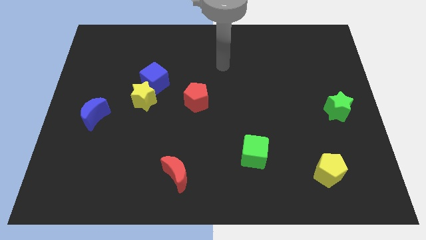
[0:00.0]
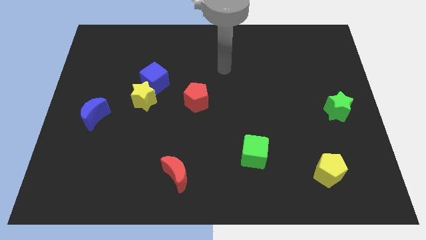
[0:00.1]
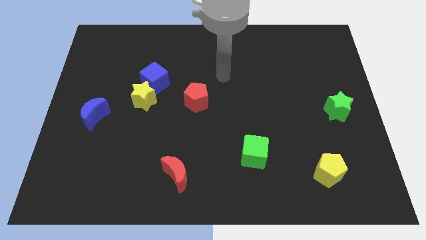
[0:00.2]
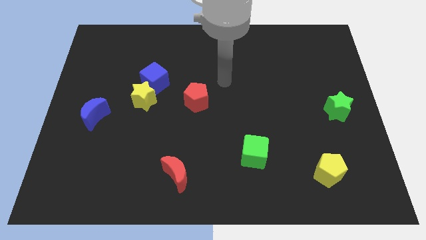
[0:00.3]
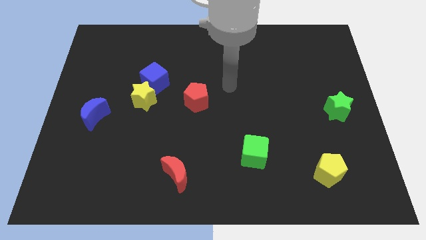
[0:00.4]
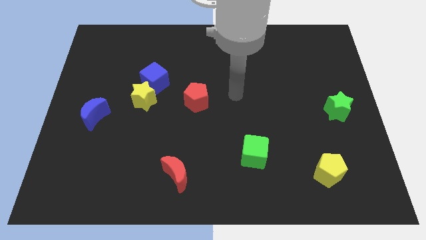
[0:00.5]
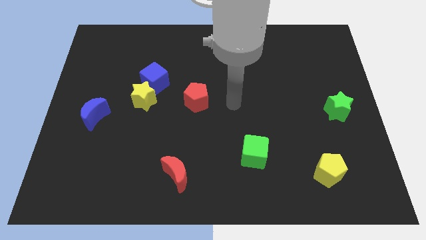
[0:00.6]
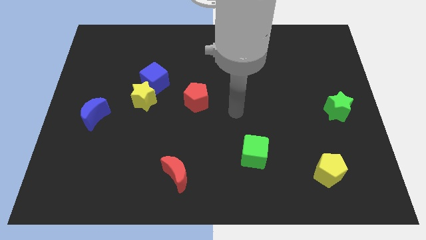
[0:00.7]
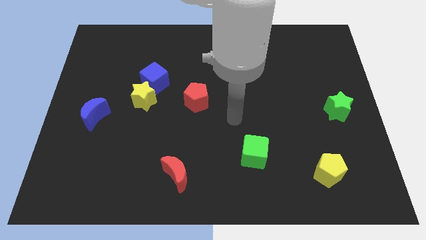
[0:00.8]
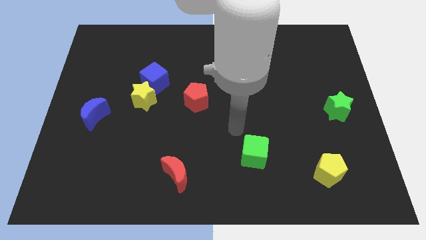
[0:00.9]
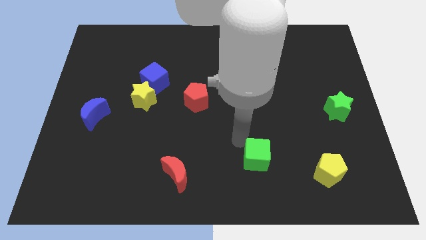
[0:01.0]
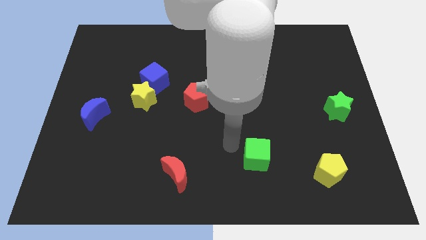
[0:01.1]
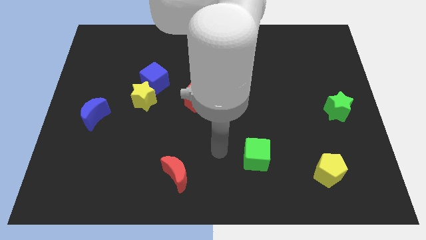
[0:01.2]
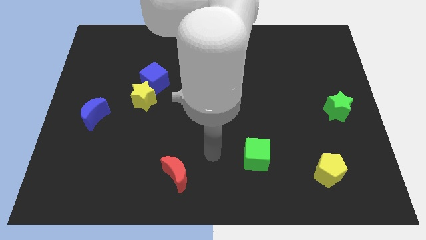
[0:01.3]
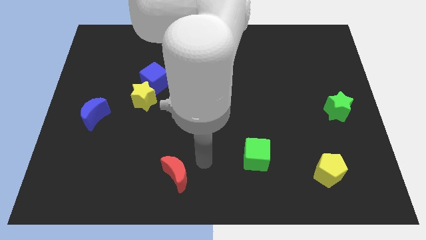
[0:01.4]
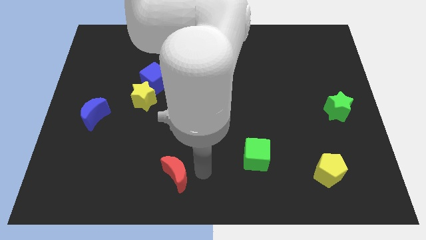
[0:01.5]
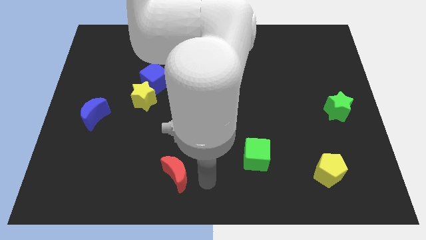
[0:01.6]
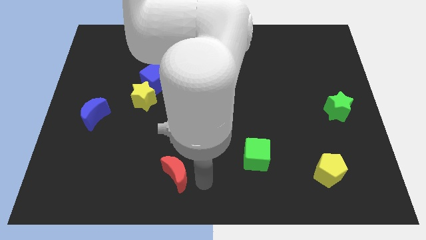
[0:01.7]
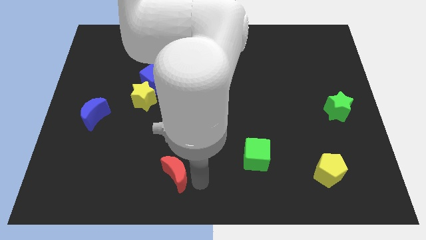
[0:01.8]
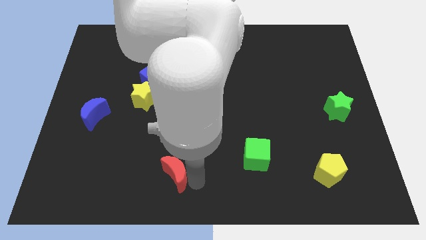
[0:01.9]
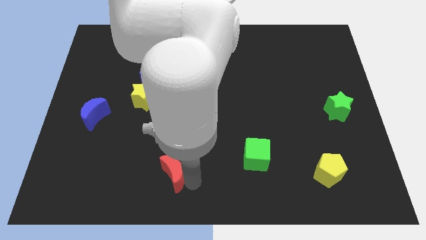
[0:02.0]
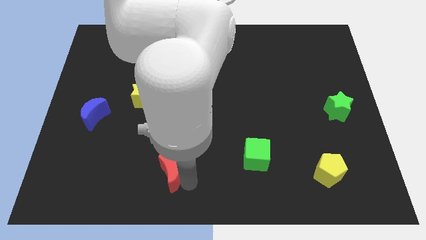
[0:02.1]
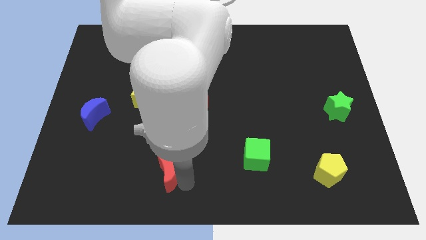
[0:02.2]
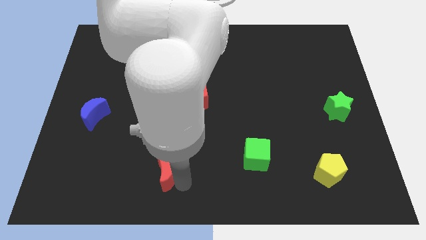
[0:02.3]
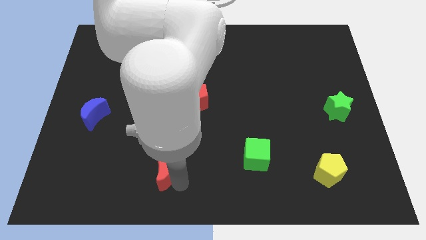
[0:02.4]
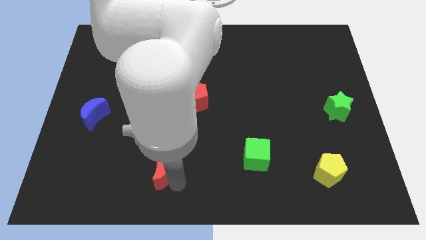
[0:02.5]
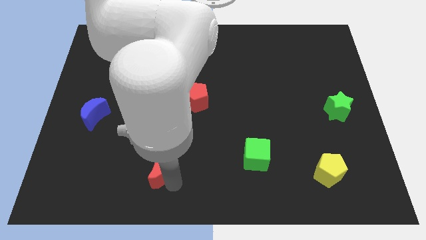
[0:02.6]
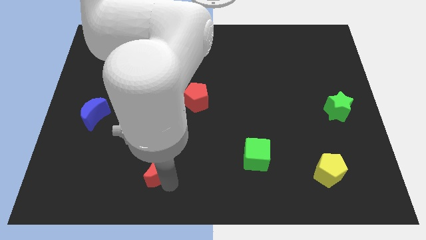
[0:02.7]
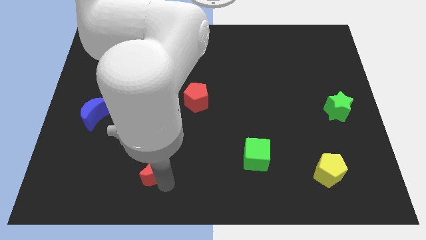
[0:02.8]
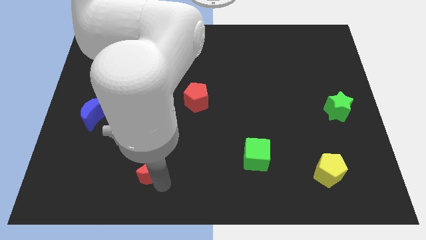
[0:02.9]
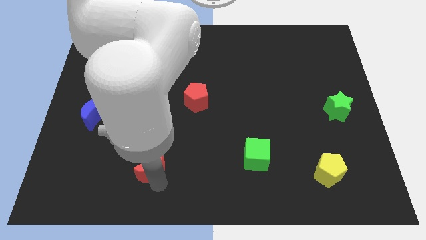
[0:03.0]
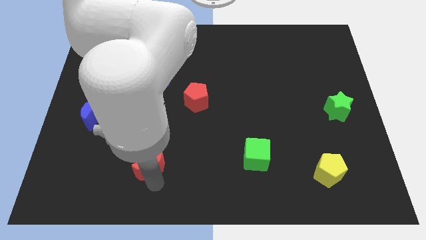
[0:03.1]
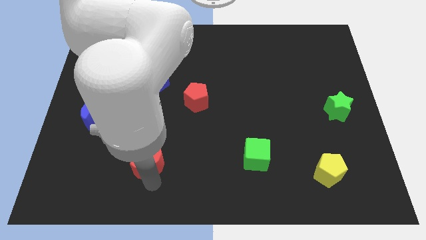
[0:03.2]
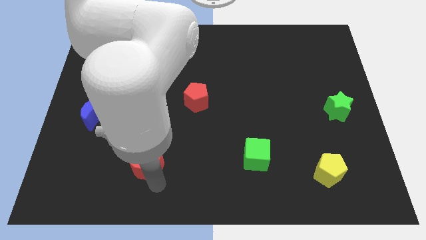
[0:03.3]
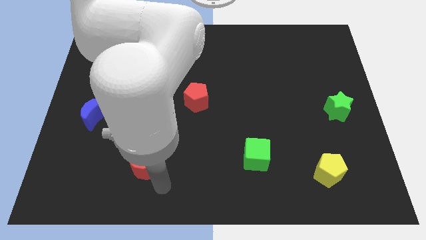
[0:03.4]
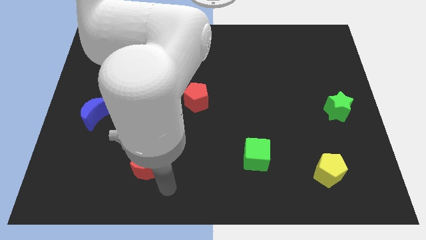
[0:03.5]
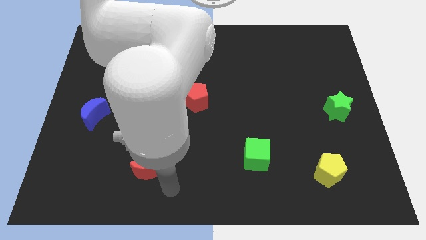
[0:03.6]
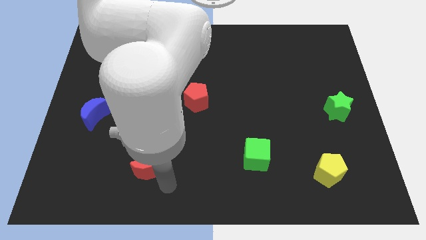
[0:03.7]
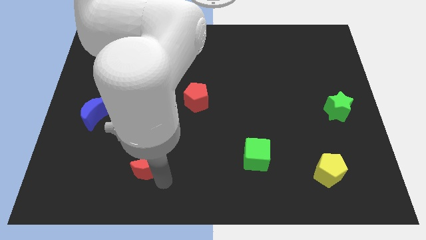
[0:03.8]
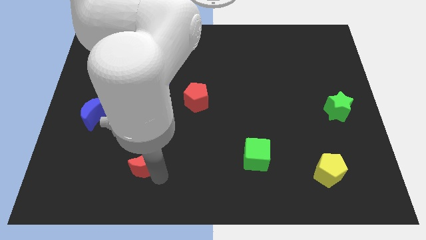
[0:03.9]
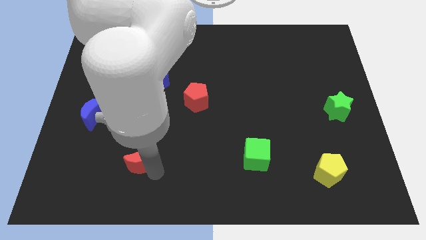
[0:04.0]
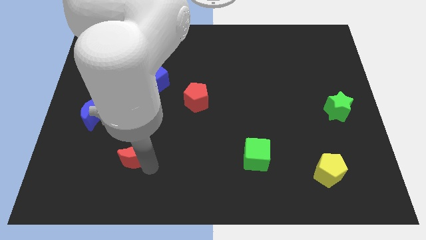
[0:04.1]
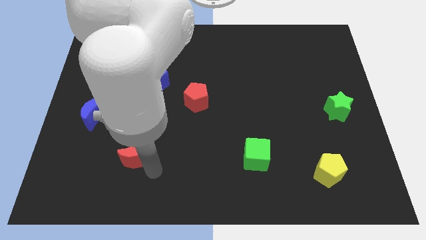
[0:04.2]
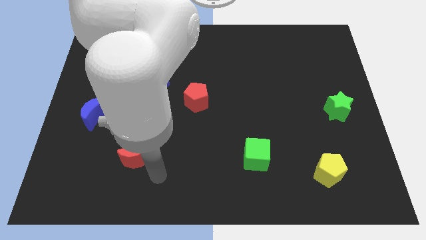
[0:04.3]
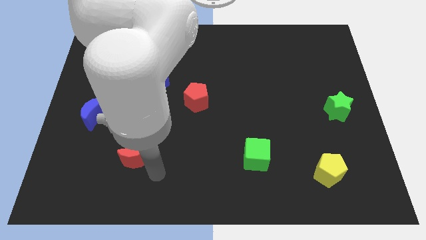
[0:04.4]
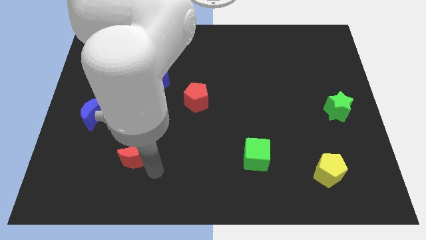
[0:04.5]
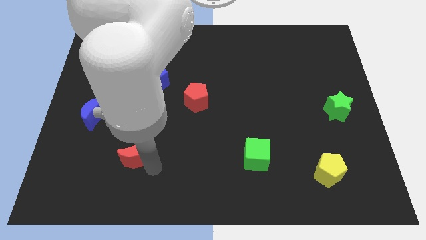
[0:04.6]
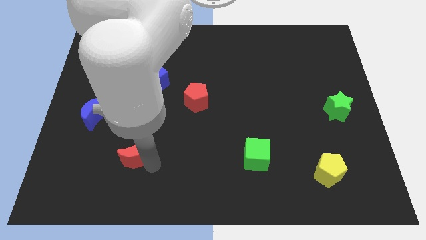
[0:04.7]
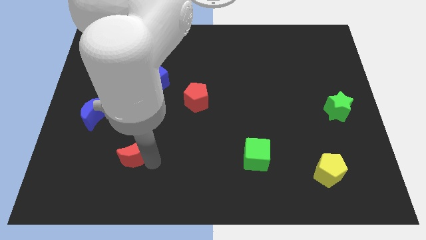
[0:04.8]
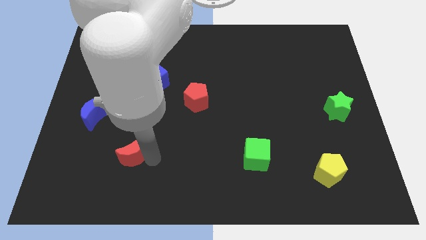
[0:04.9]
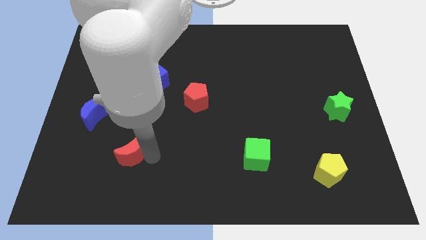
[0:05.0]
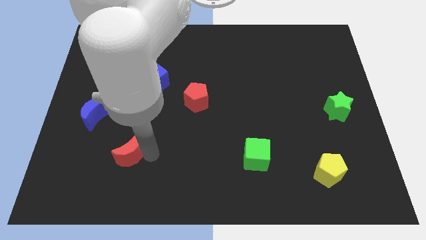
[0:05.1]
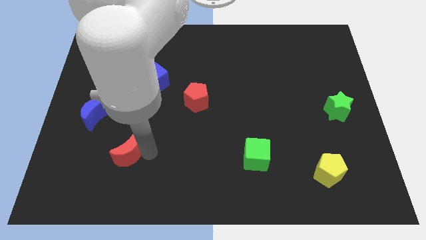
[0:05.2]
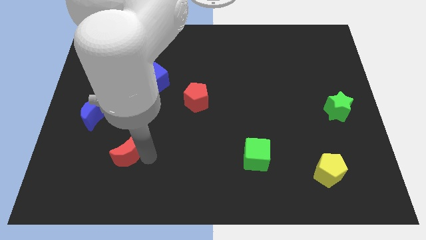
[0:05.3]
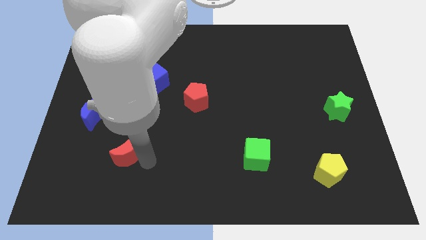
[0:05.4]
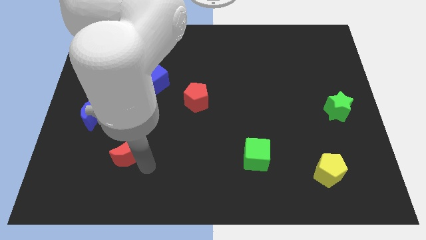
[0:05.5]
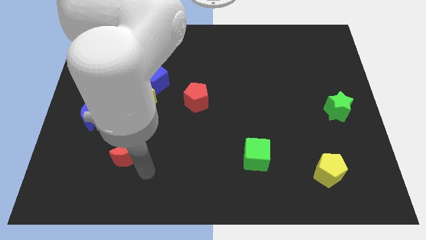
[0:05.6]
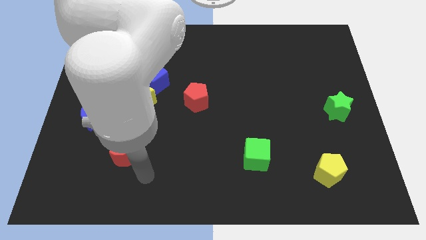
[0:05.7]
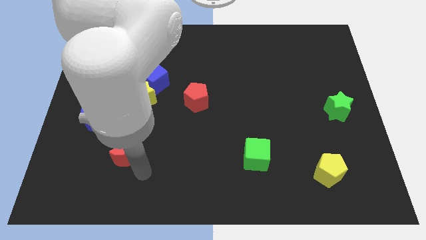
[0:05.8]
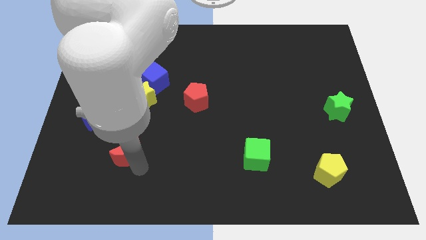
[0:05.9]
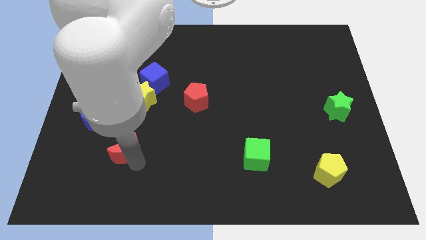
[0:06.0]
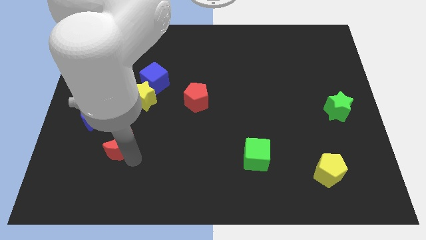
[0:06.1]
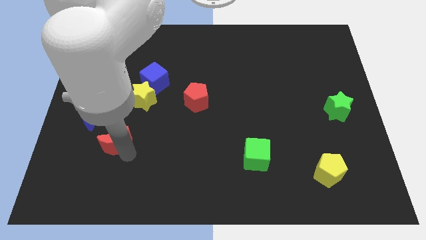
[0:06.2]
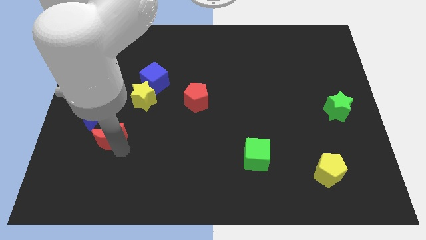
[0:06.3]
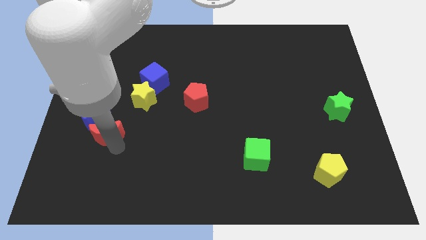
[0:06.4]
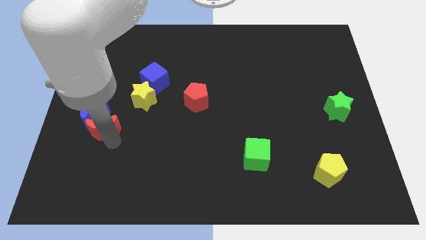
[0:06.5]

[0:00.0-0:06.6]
put the red moon close to the blue moon

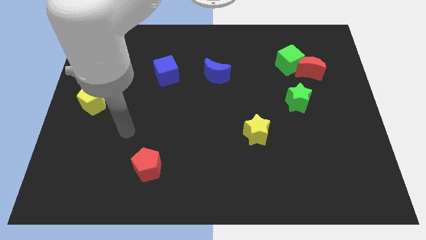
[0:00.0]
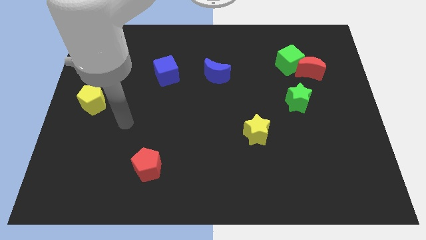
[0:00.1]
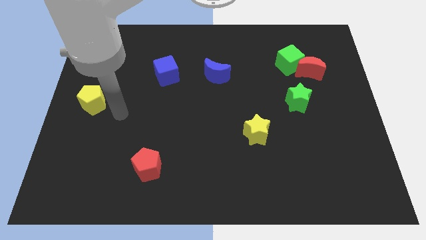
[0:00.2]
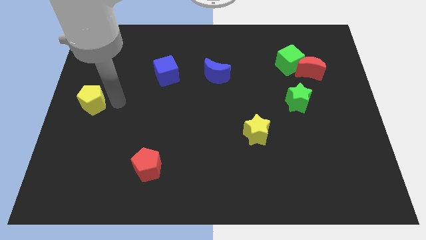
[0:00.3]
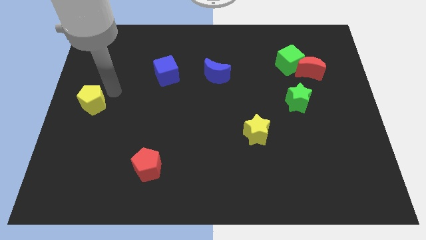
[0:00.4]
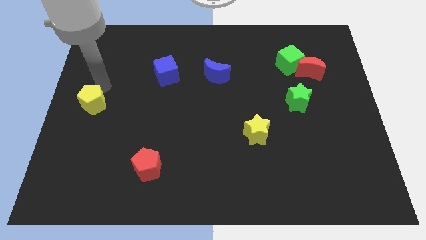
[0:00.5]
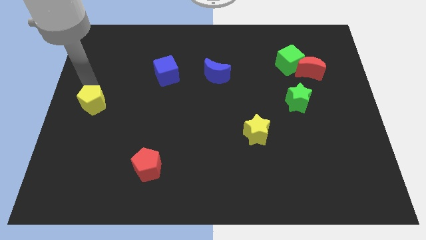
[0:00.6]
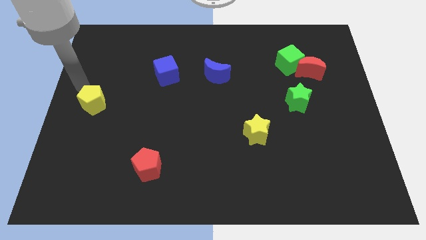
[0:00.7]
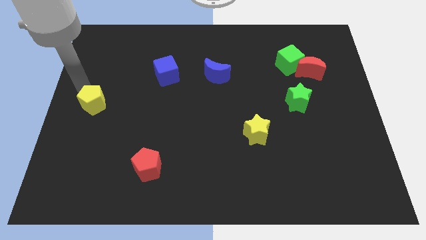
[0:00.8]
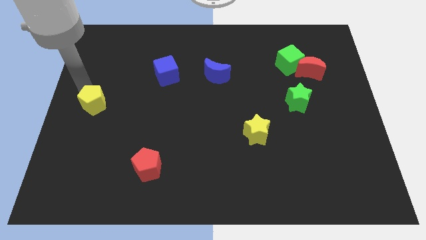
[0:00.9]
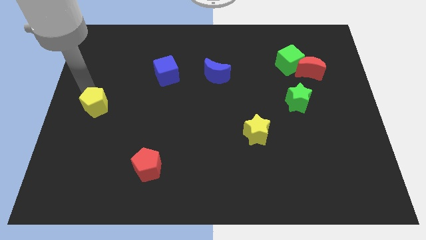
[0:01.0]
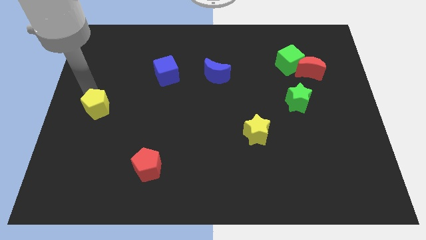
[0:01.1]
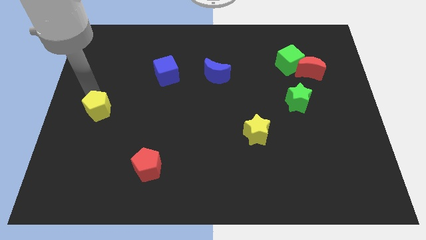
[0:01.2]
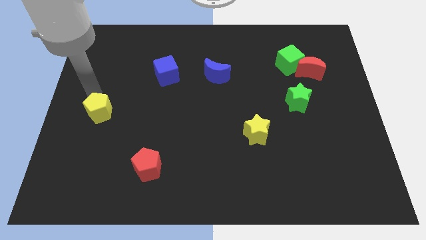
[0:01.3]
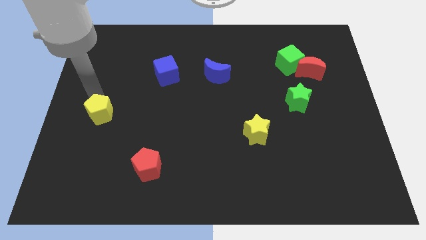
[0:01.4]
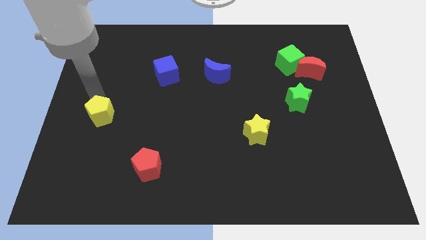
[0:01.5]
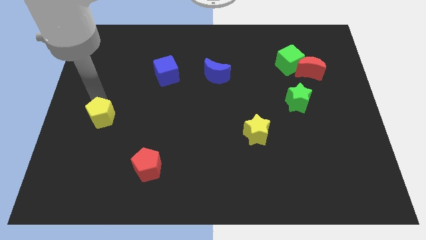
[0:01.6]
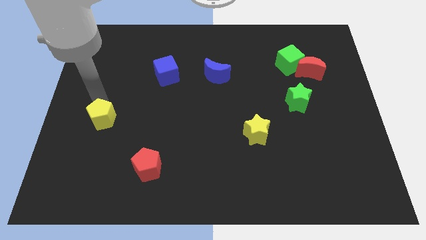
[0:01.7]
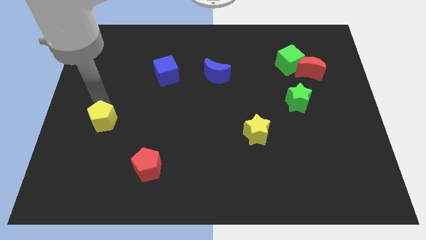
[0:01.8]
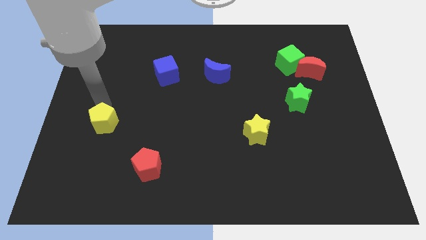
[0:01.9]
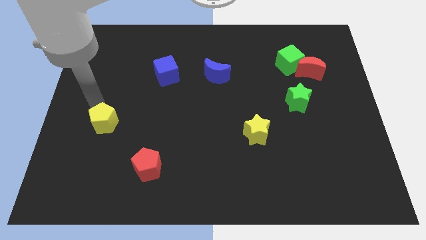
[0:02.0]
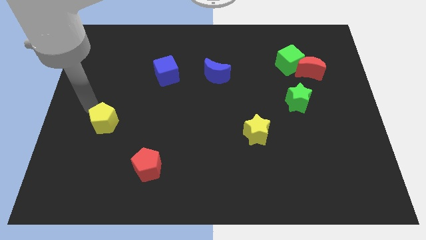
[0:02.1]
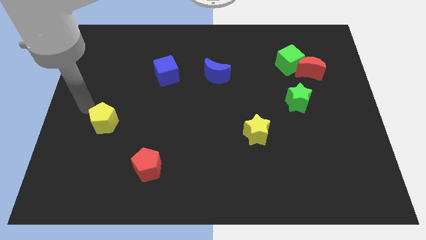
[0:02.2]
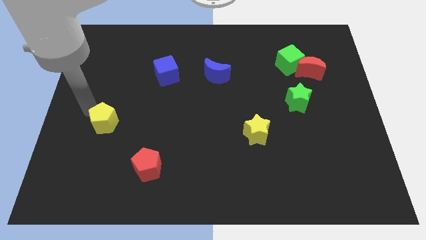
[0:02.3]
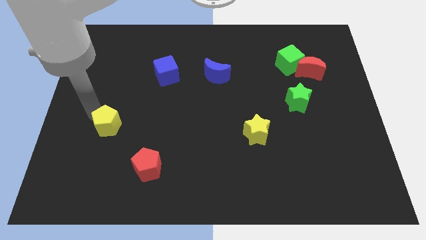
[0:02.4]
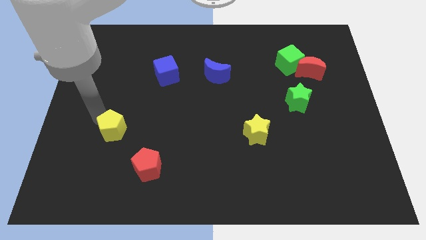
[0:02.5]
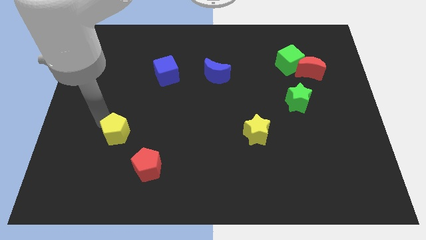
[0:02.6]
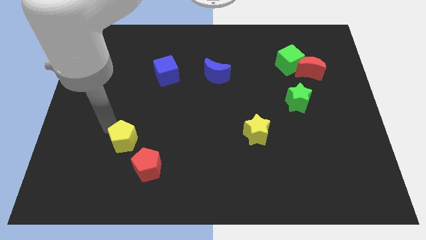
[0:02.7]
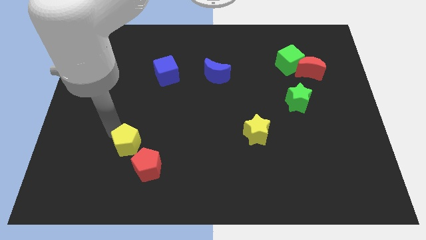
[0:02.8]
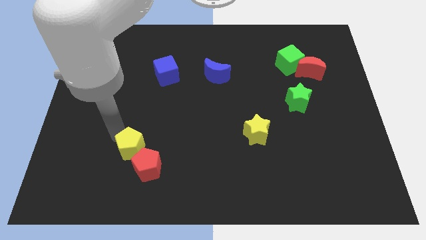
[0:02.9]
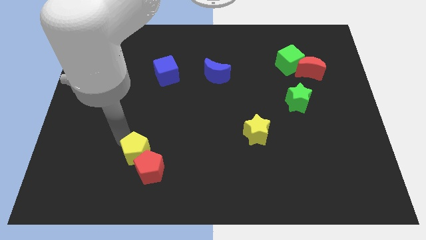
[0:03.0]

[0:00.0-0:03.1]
move the yellow pentagon next to the red pentagon
